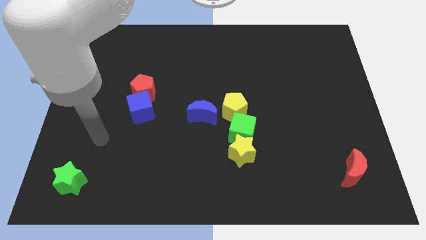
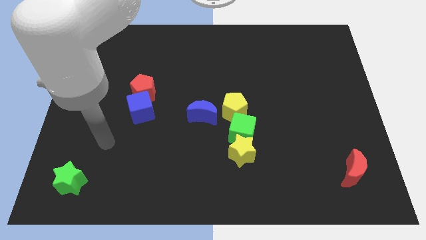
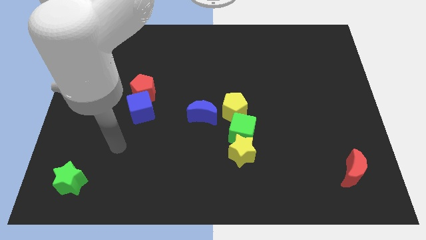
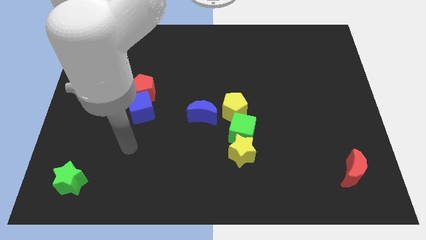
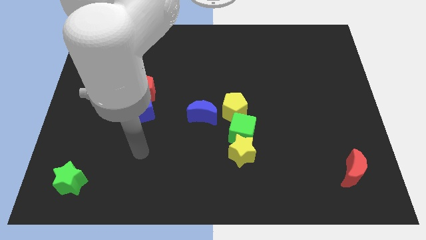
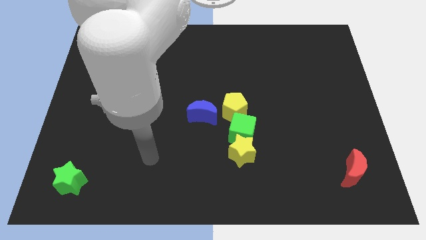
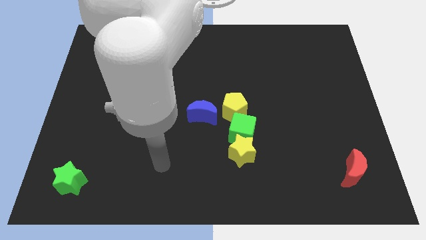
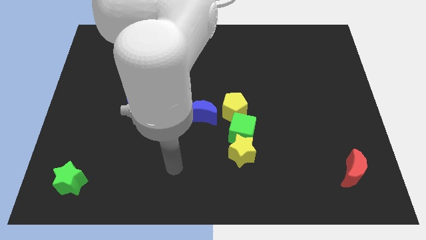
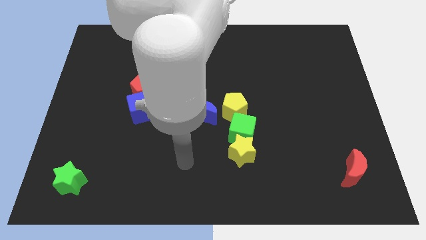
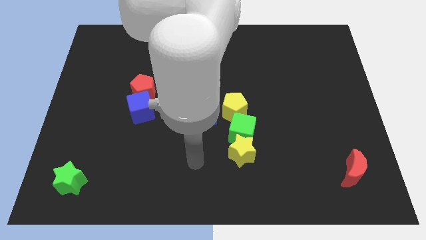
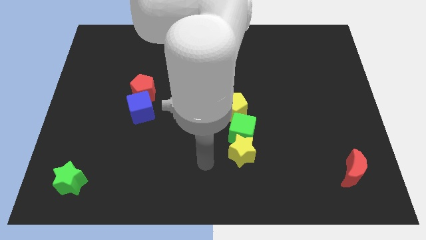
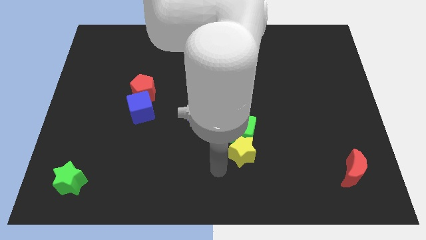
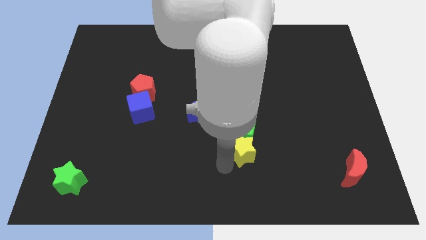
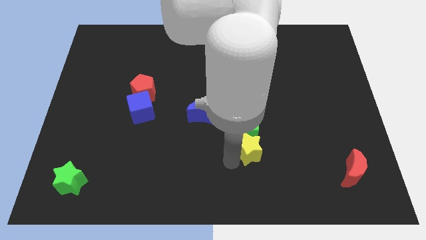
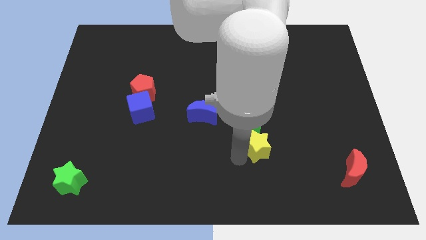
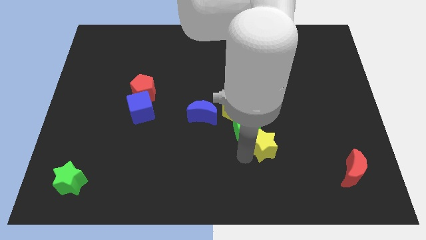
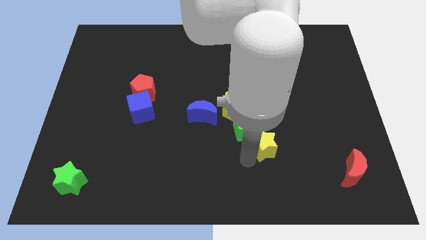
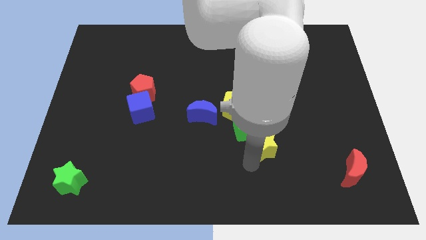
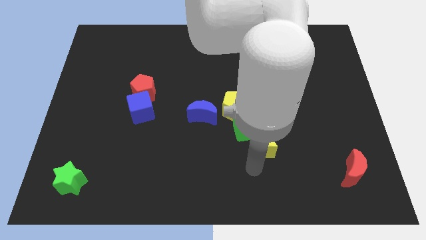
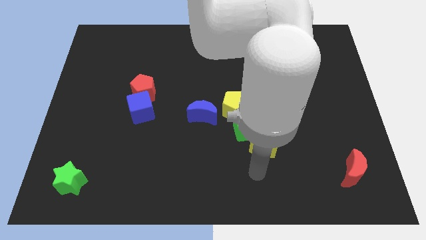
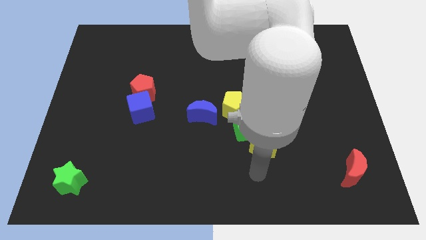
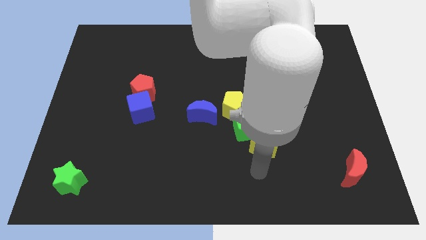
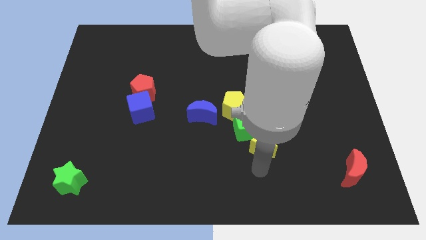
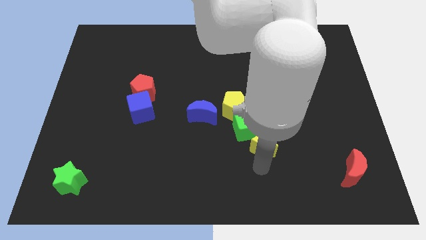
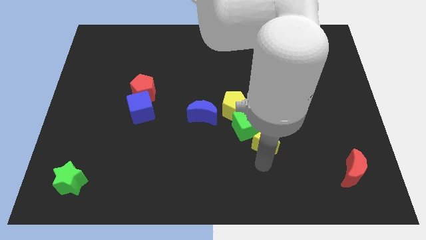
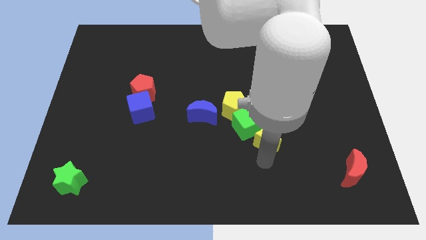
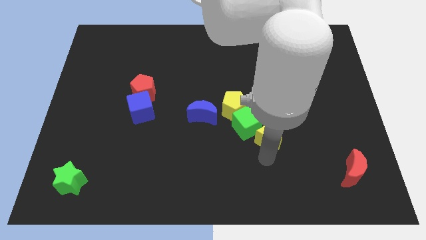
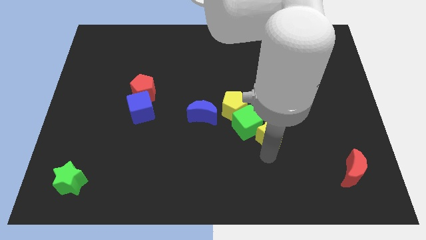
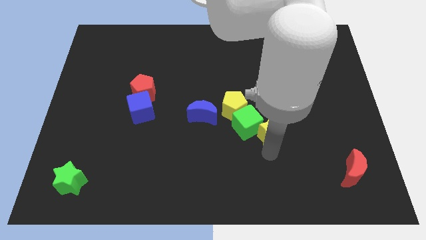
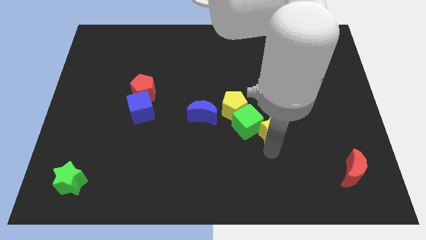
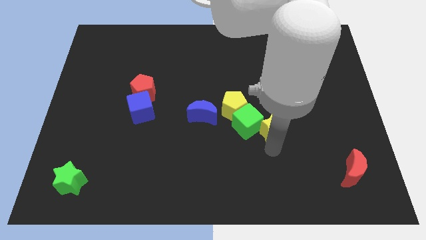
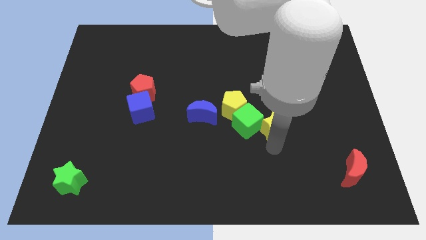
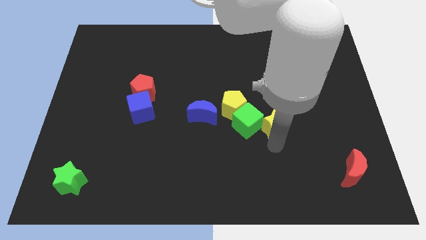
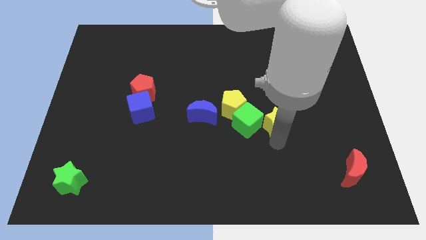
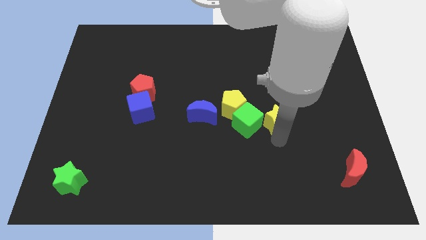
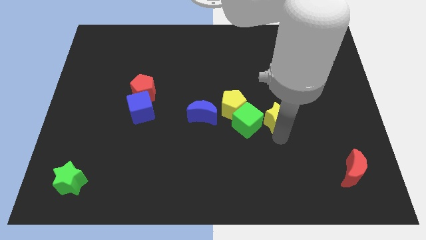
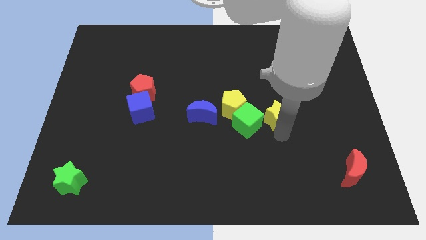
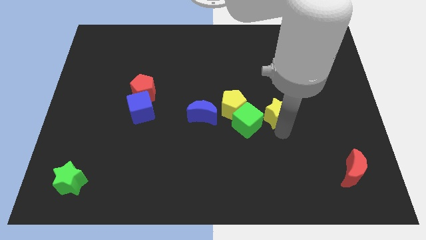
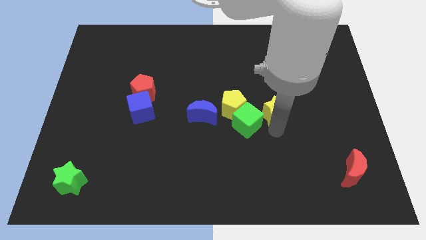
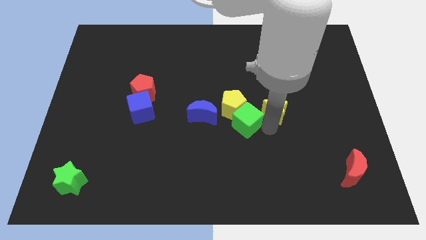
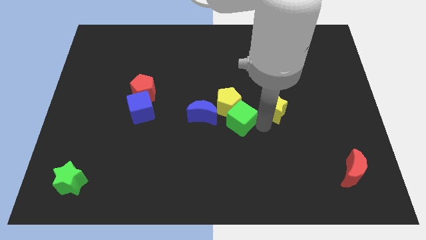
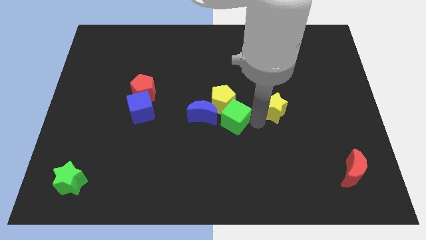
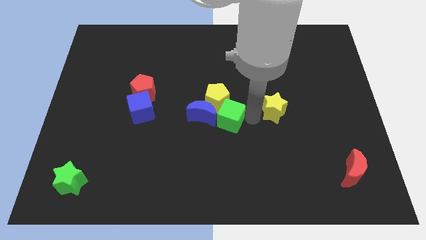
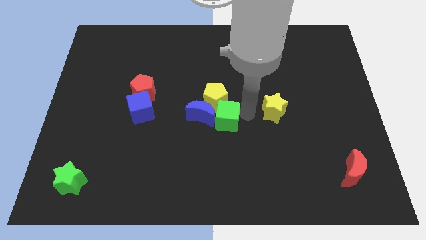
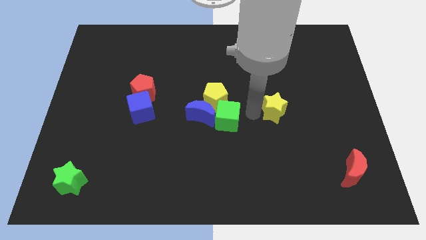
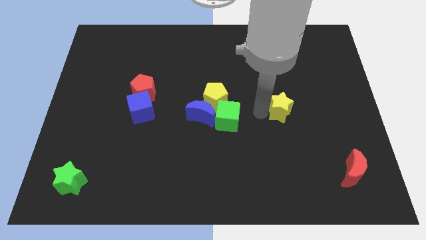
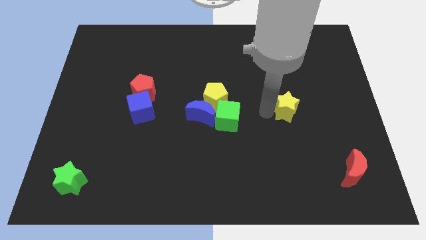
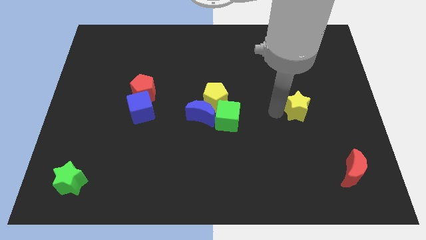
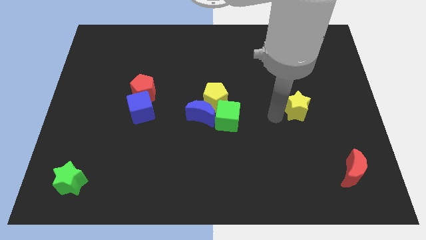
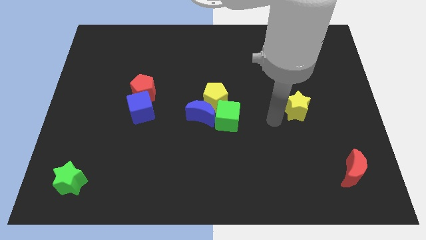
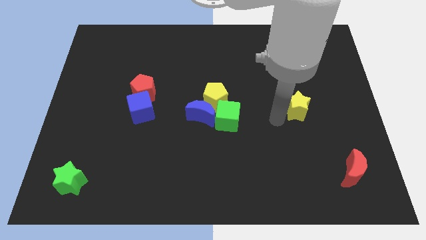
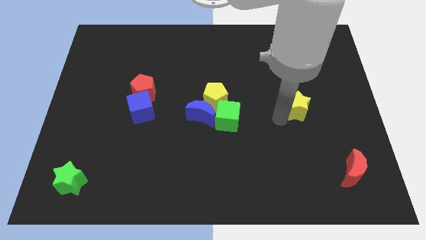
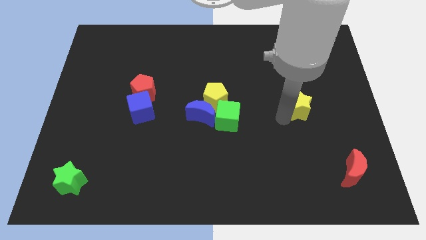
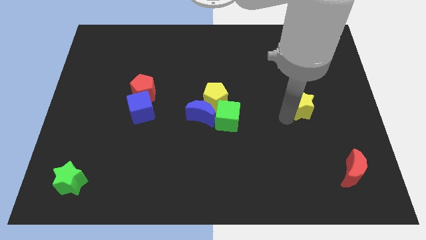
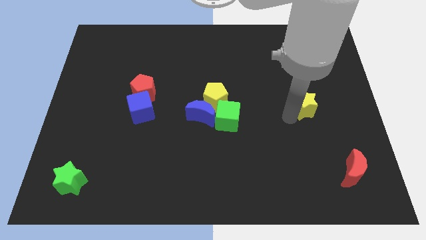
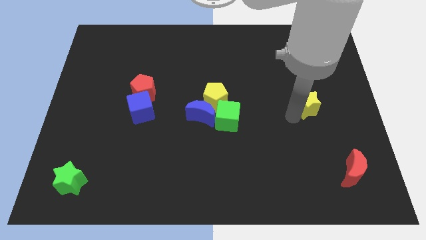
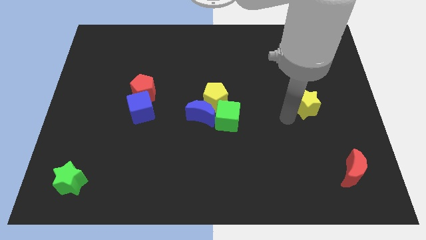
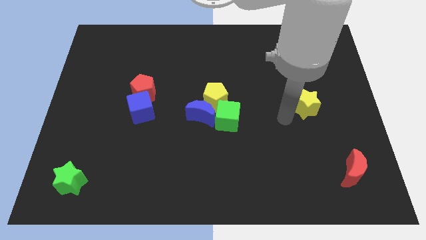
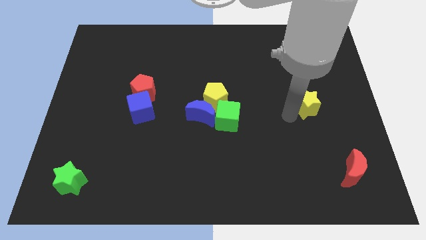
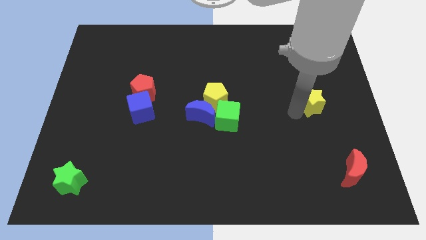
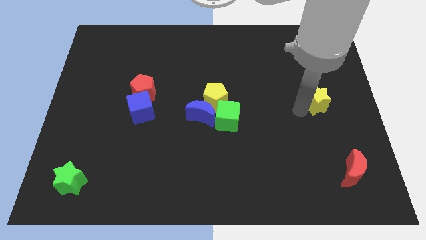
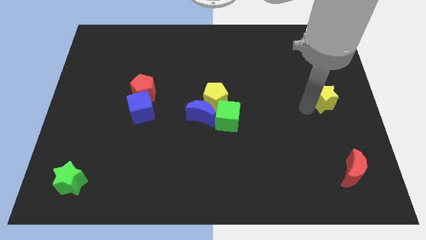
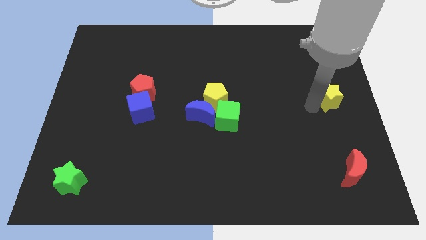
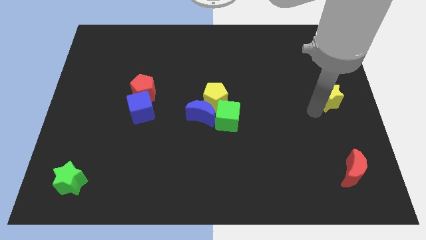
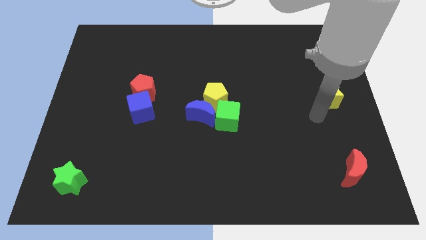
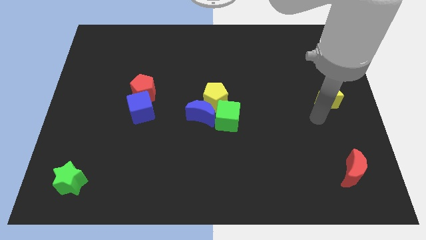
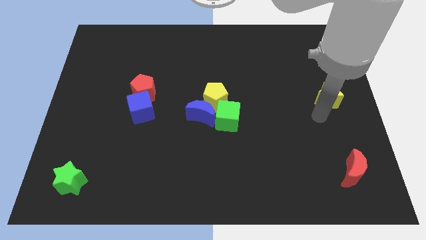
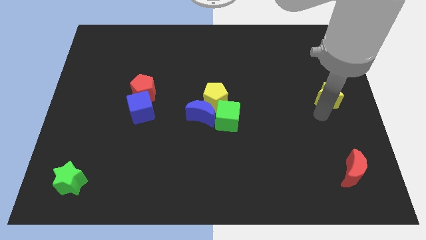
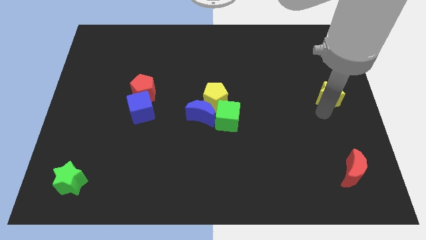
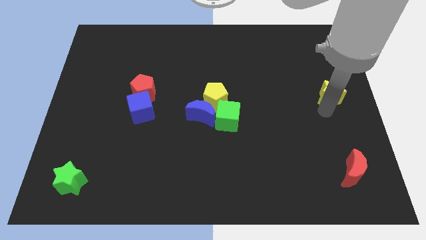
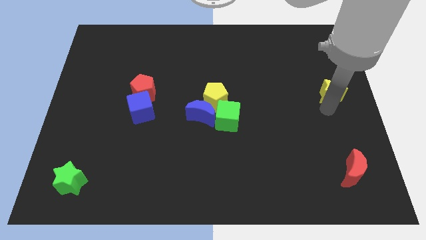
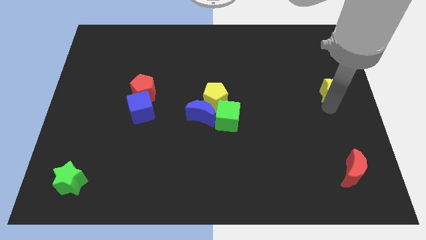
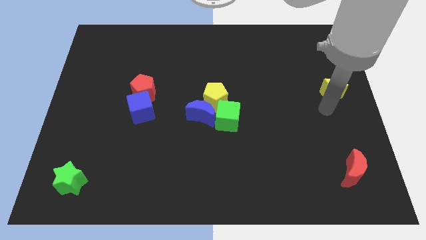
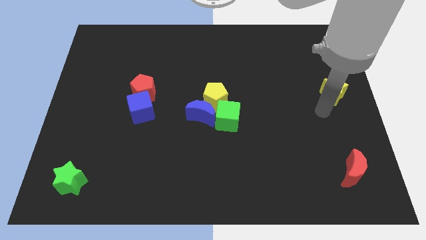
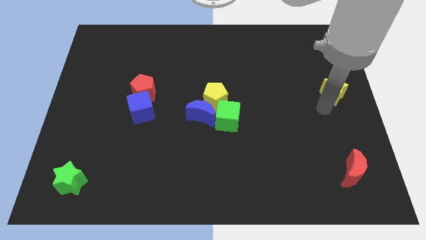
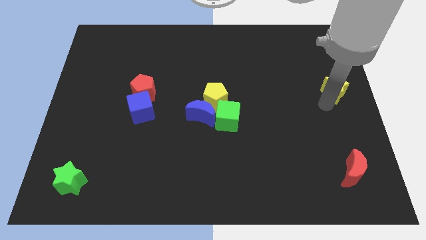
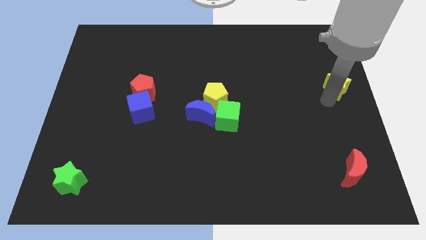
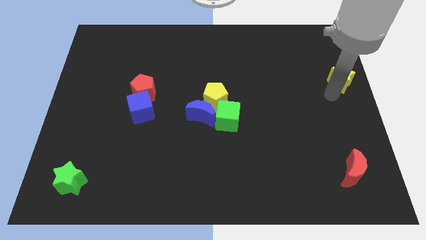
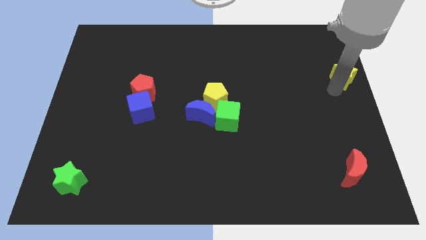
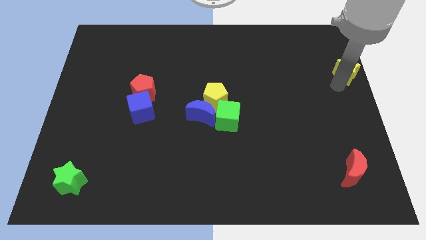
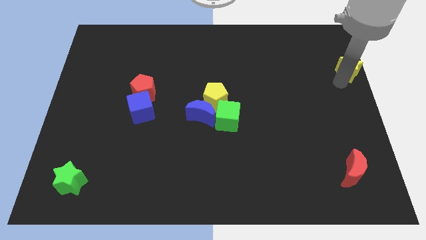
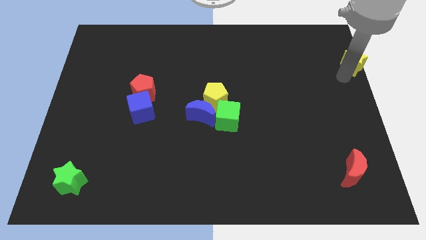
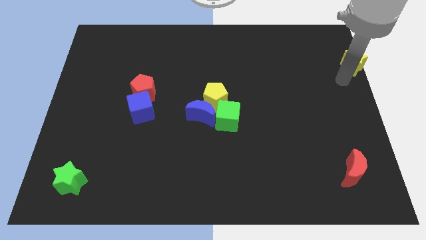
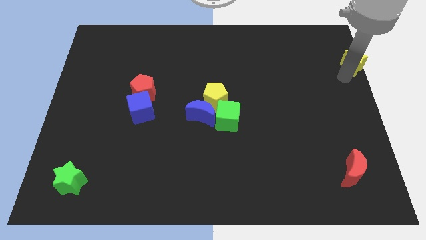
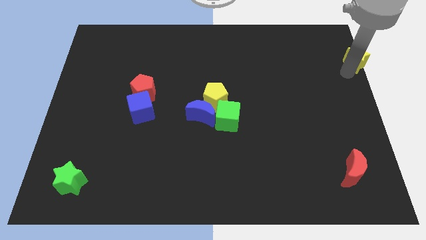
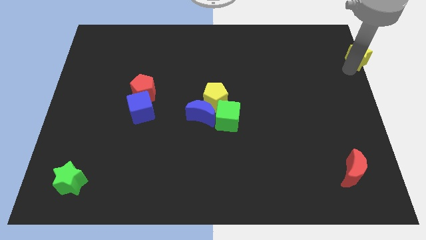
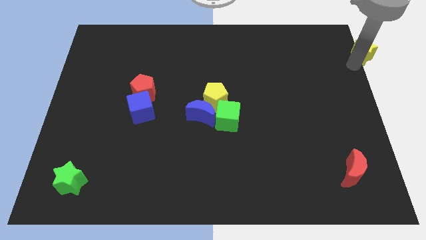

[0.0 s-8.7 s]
put the yellow star to the top right of the board
